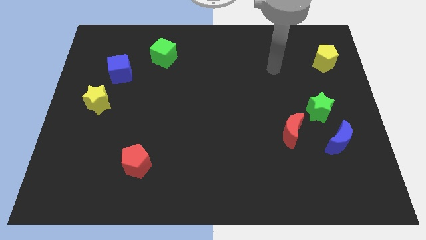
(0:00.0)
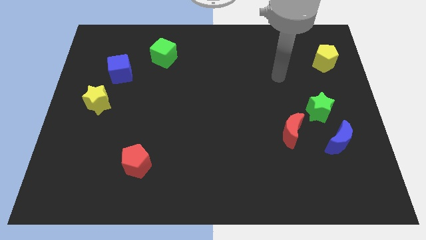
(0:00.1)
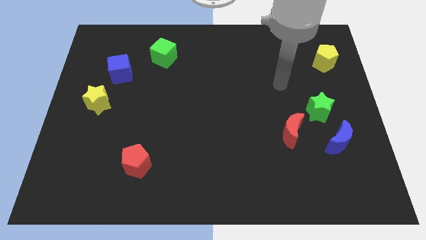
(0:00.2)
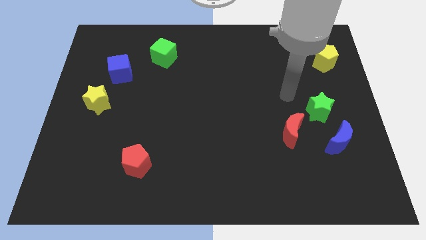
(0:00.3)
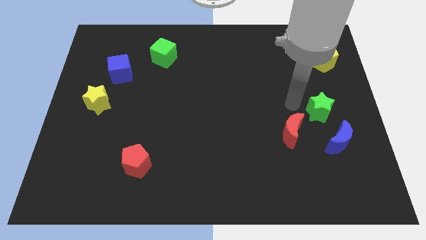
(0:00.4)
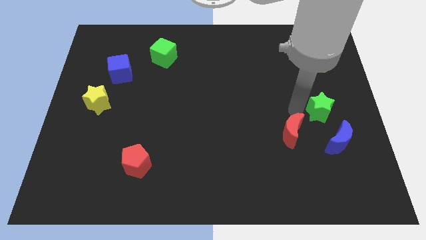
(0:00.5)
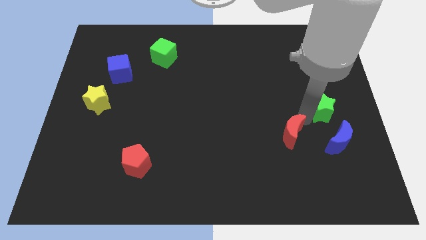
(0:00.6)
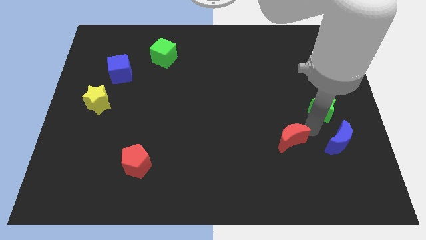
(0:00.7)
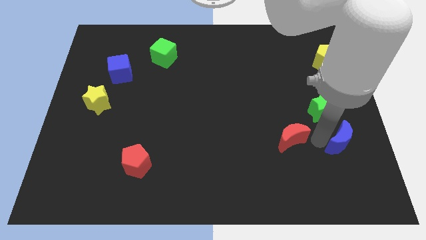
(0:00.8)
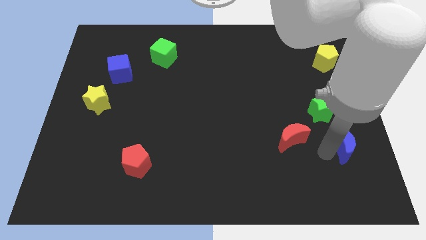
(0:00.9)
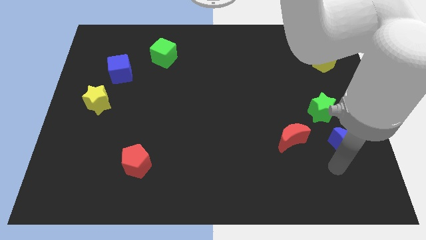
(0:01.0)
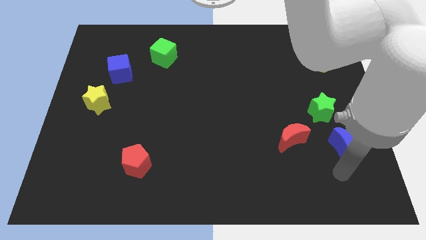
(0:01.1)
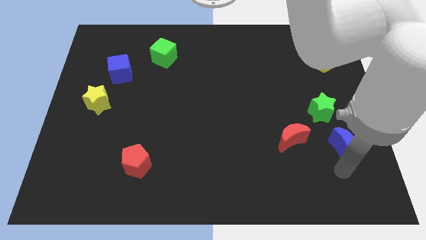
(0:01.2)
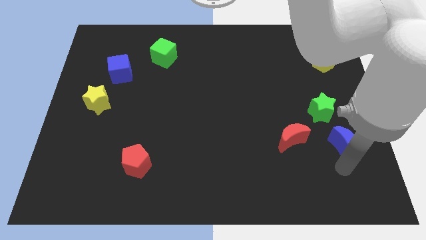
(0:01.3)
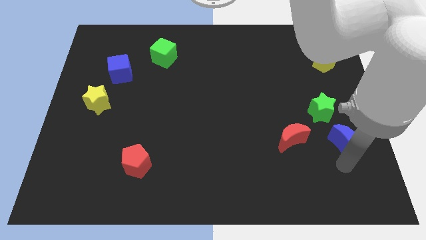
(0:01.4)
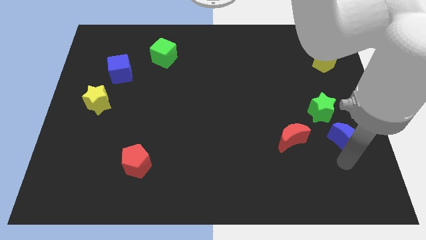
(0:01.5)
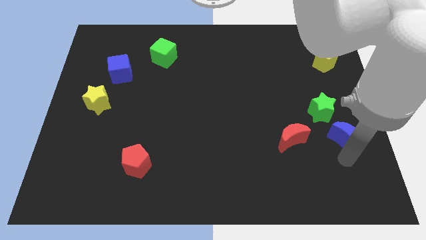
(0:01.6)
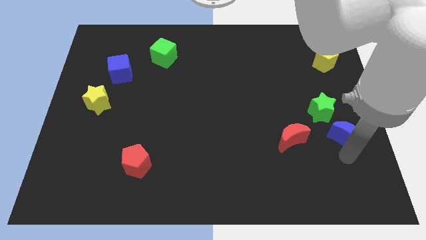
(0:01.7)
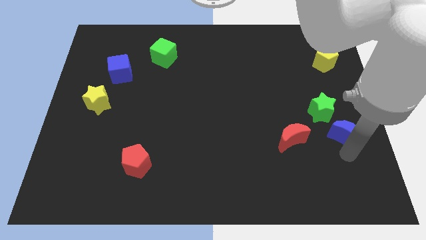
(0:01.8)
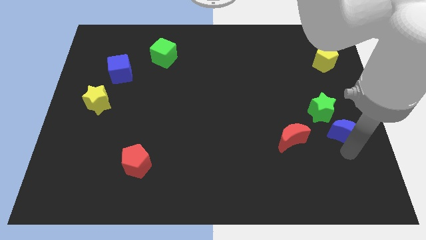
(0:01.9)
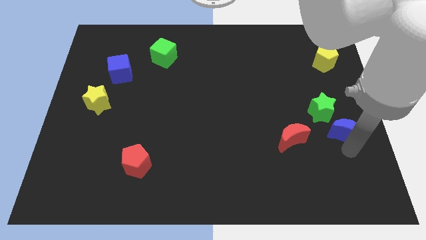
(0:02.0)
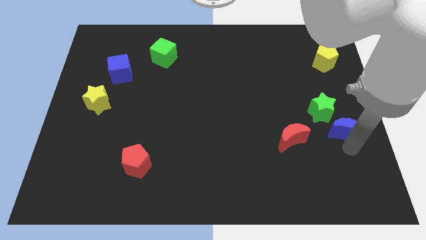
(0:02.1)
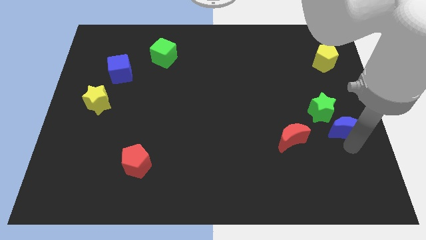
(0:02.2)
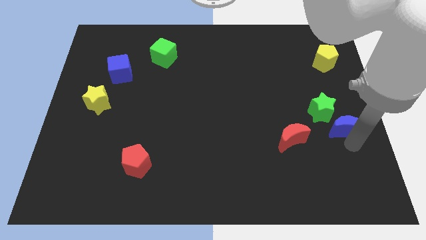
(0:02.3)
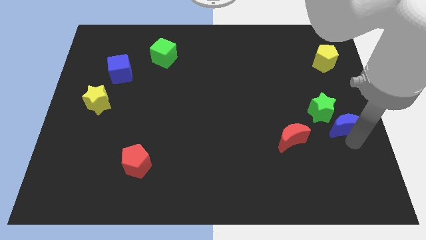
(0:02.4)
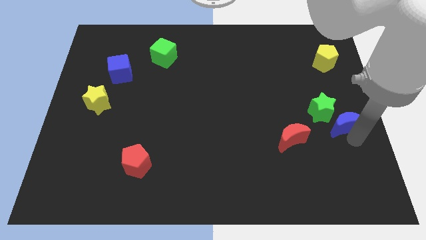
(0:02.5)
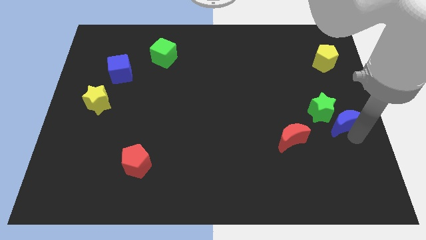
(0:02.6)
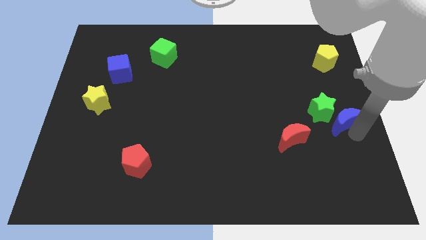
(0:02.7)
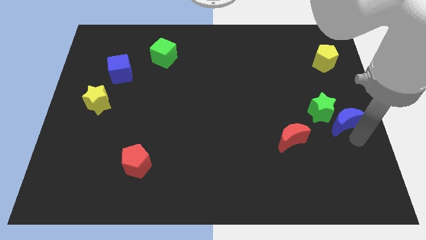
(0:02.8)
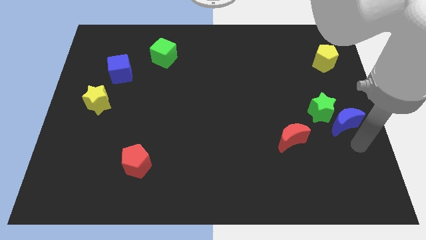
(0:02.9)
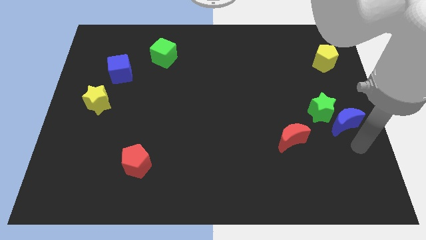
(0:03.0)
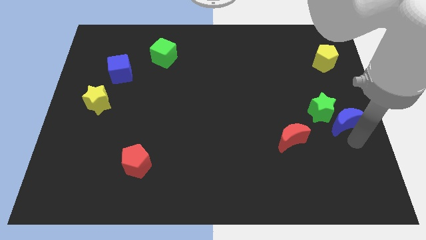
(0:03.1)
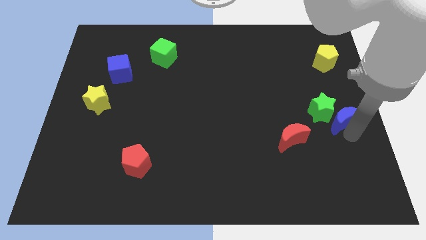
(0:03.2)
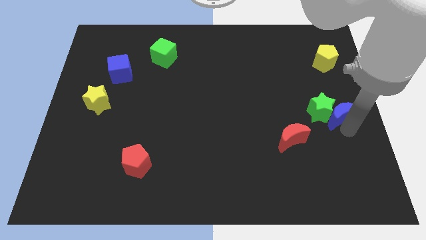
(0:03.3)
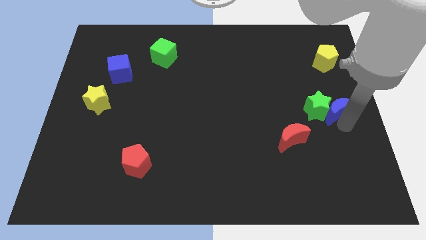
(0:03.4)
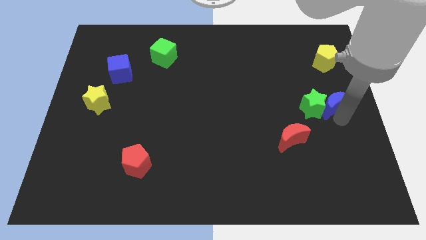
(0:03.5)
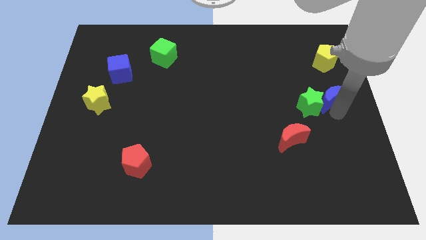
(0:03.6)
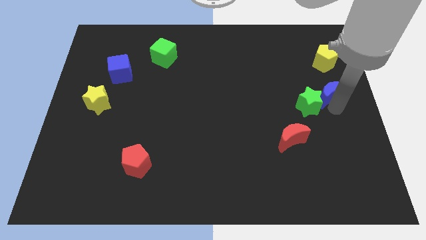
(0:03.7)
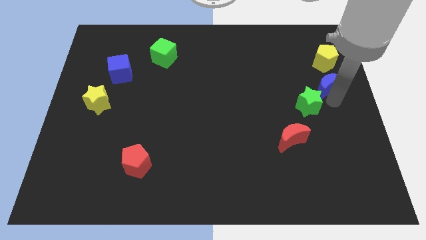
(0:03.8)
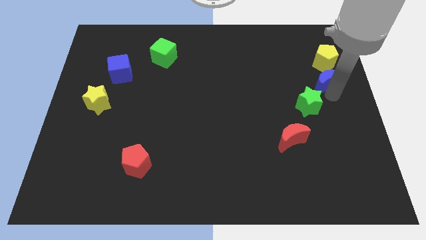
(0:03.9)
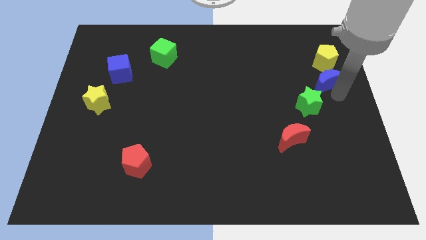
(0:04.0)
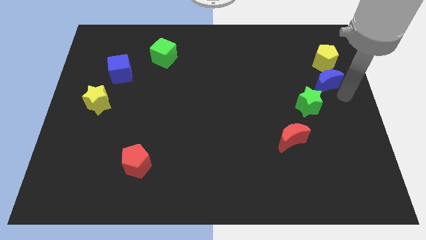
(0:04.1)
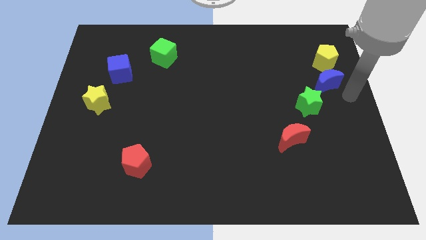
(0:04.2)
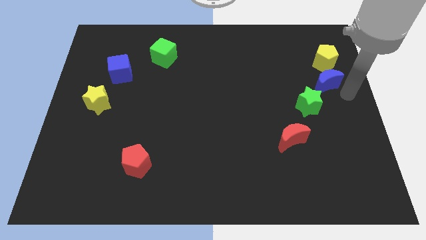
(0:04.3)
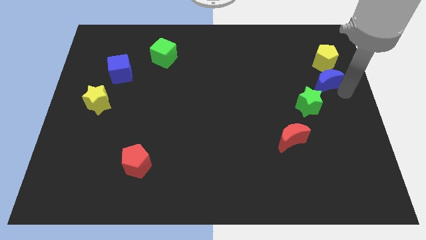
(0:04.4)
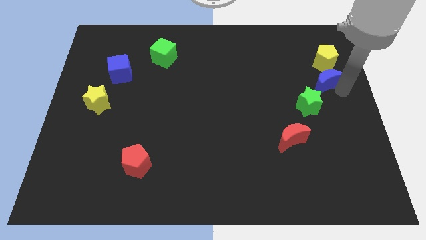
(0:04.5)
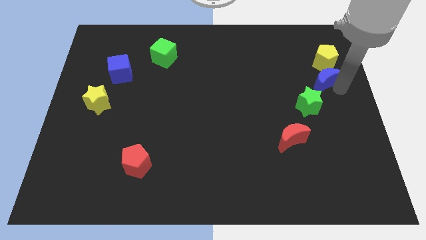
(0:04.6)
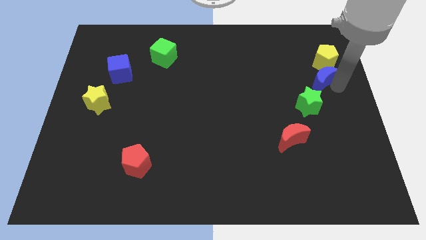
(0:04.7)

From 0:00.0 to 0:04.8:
push the blue moon to the top of the green star

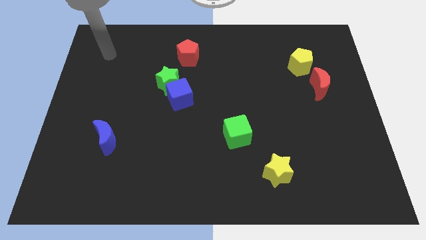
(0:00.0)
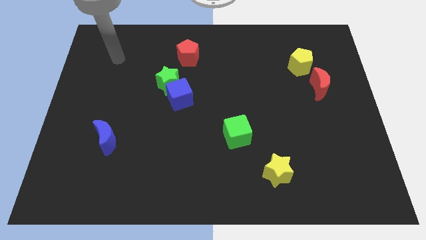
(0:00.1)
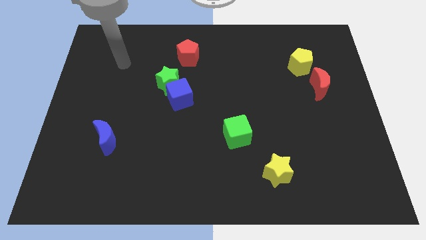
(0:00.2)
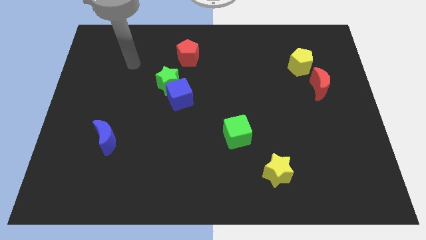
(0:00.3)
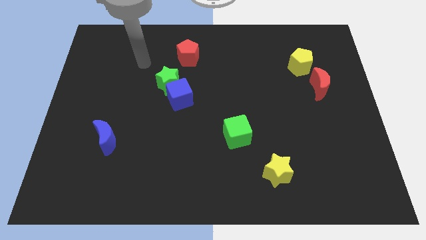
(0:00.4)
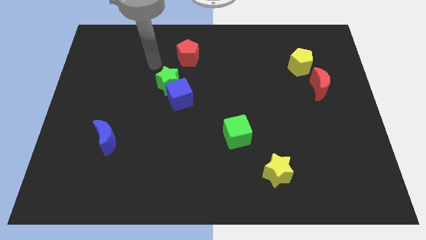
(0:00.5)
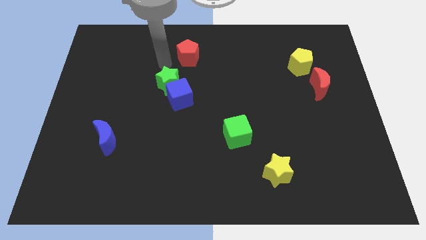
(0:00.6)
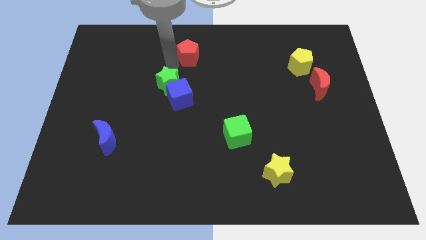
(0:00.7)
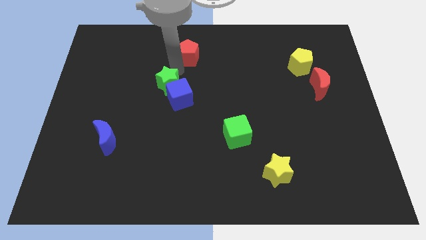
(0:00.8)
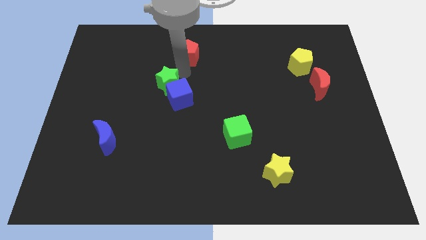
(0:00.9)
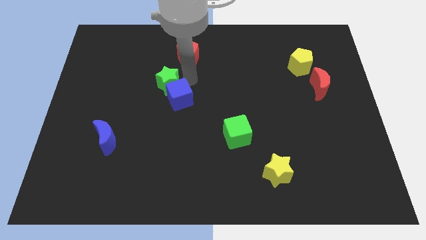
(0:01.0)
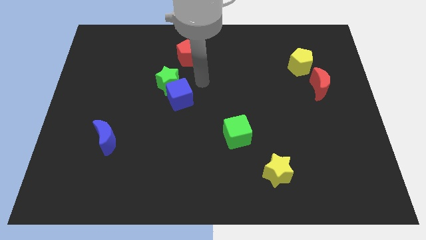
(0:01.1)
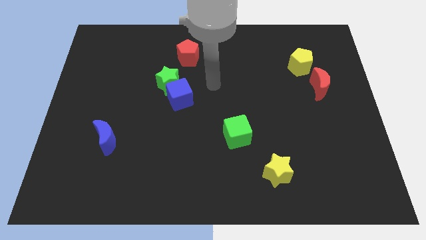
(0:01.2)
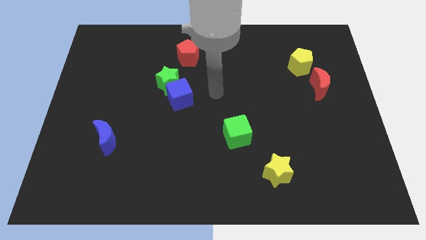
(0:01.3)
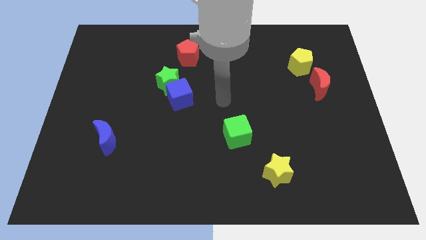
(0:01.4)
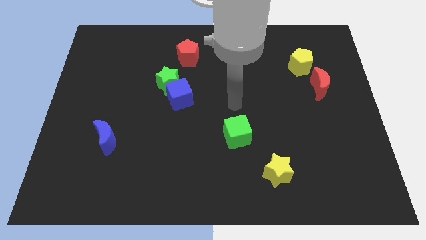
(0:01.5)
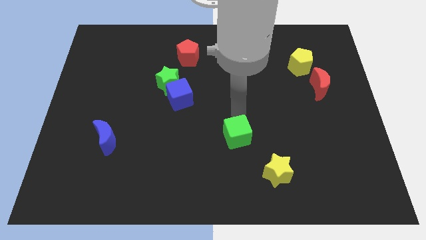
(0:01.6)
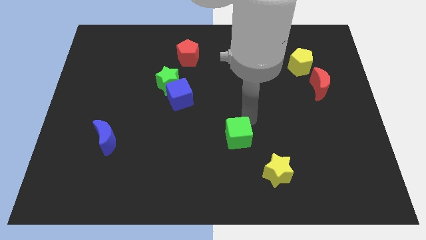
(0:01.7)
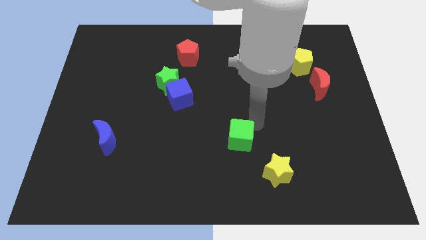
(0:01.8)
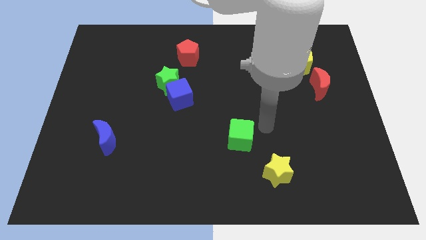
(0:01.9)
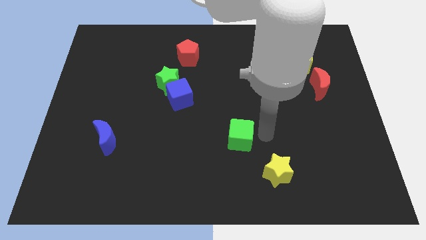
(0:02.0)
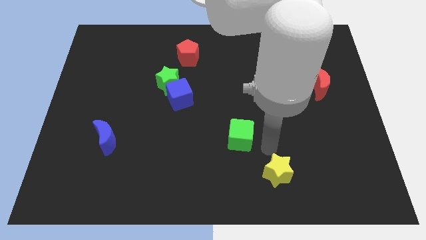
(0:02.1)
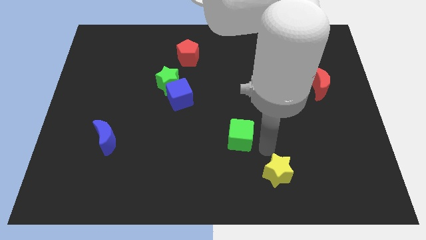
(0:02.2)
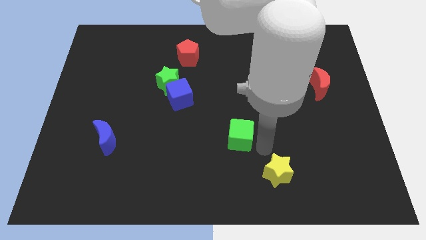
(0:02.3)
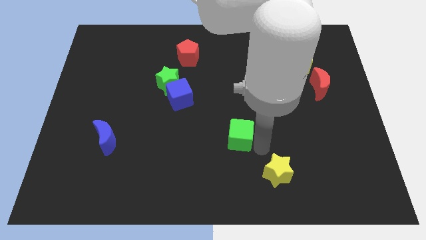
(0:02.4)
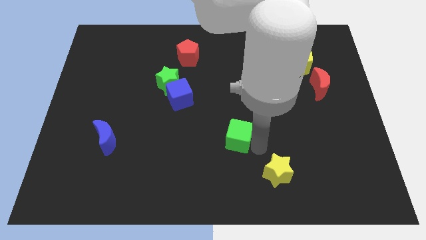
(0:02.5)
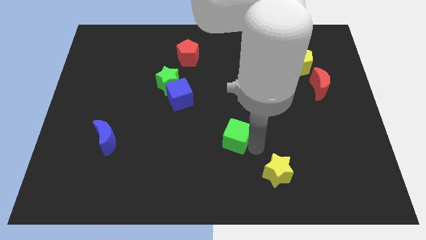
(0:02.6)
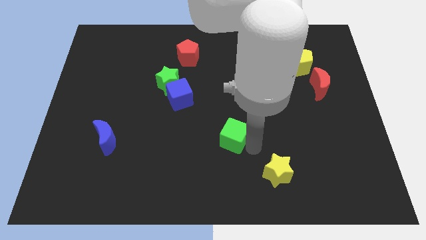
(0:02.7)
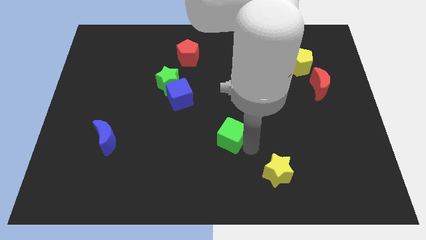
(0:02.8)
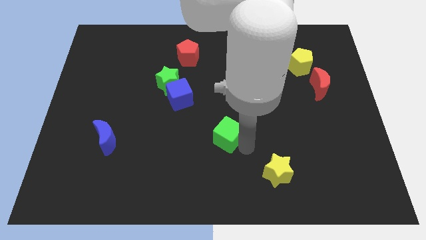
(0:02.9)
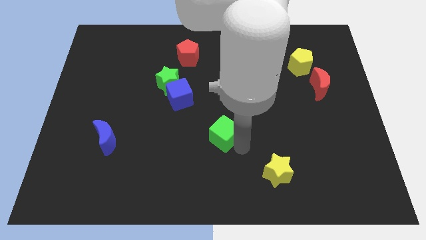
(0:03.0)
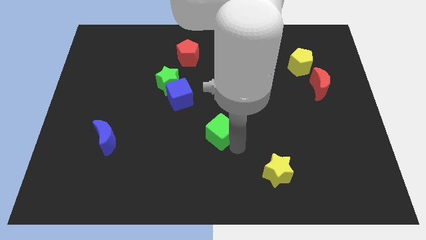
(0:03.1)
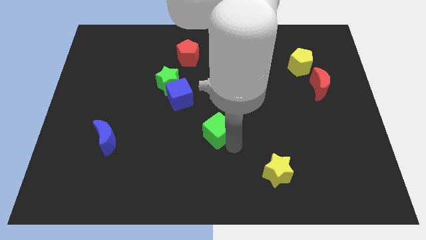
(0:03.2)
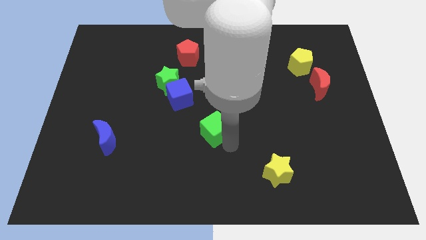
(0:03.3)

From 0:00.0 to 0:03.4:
slide the green cube to the bottom right of the blue cube
